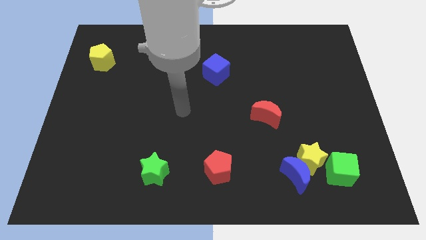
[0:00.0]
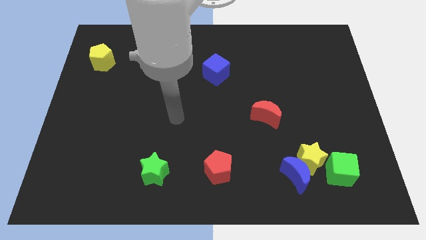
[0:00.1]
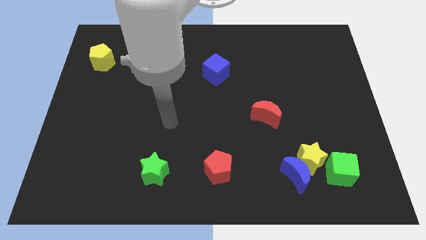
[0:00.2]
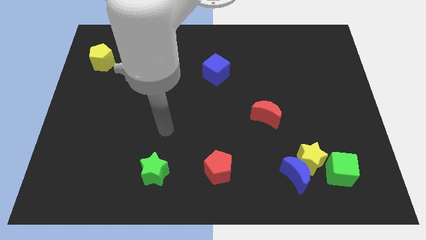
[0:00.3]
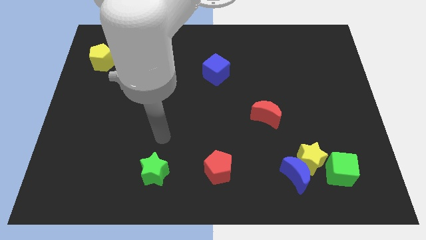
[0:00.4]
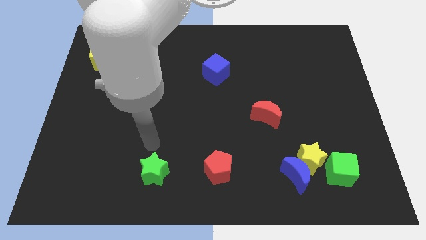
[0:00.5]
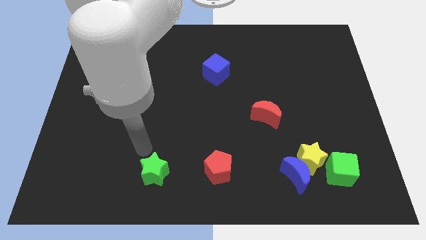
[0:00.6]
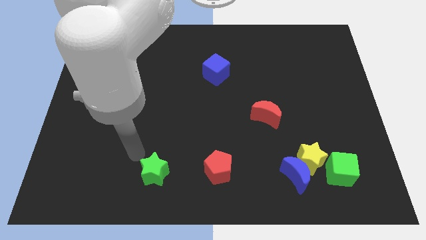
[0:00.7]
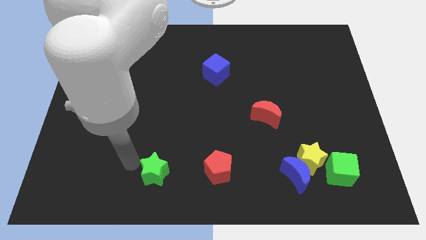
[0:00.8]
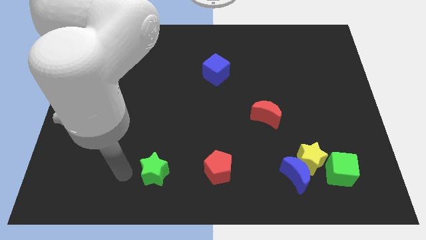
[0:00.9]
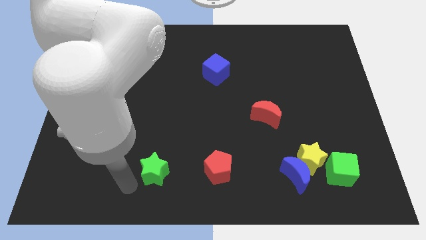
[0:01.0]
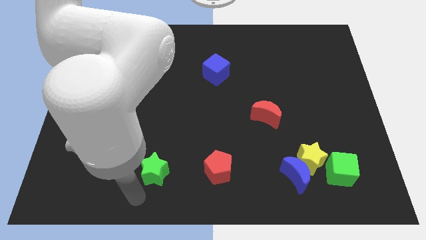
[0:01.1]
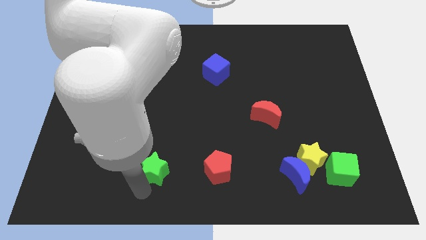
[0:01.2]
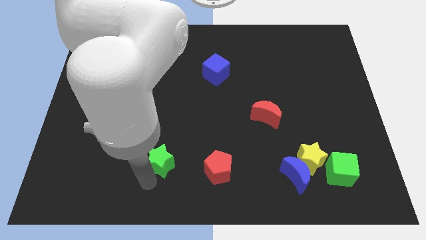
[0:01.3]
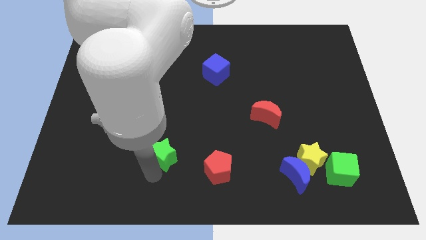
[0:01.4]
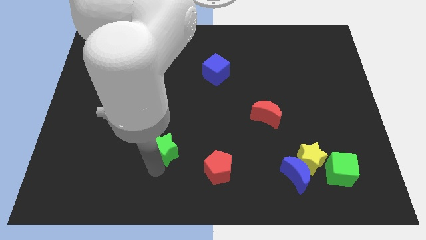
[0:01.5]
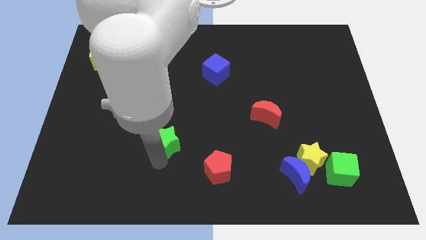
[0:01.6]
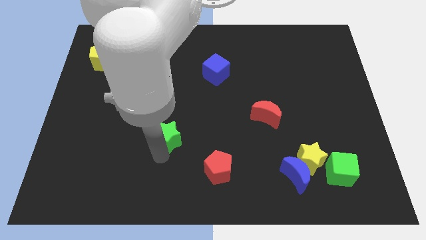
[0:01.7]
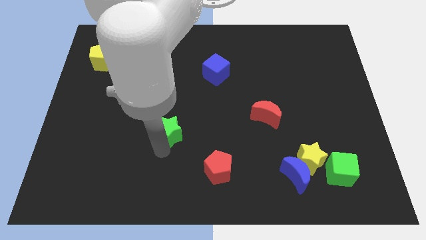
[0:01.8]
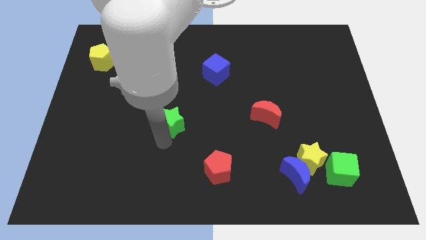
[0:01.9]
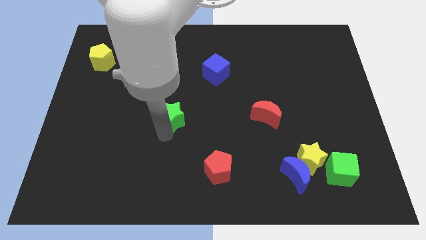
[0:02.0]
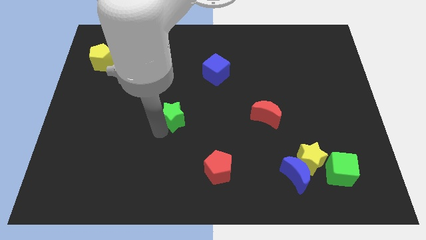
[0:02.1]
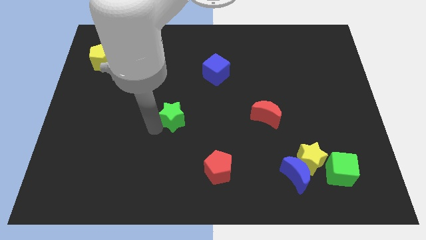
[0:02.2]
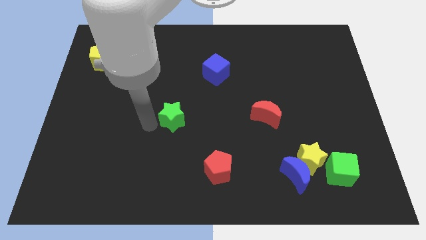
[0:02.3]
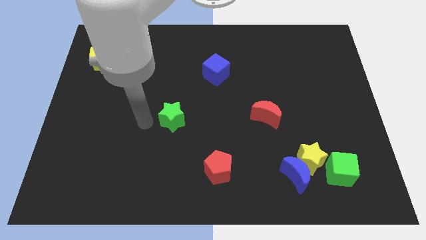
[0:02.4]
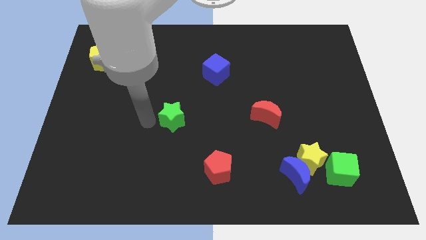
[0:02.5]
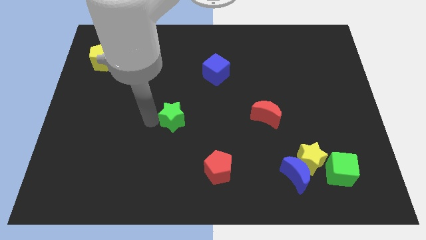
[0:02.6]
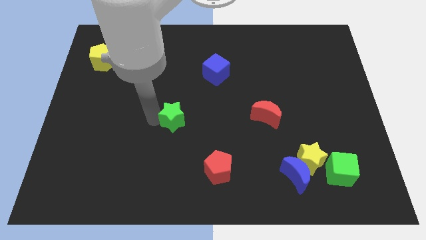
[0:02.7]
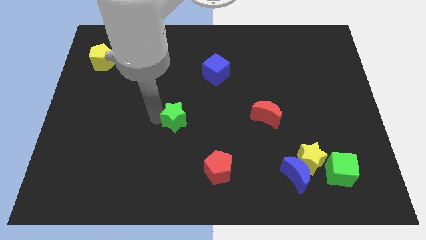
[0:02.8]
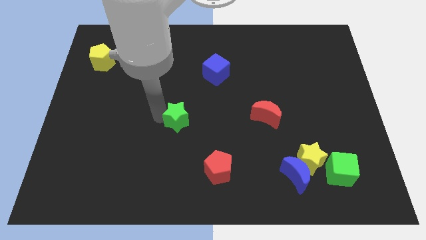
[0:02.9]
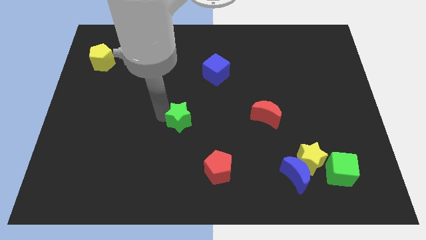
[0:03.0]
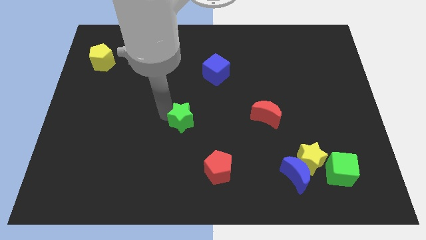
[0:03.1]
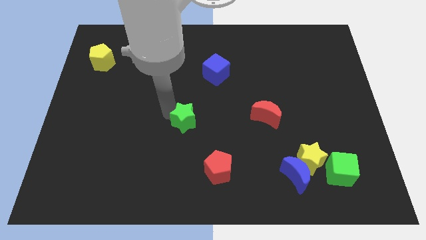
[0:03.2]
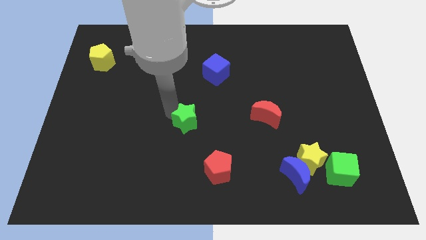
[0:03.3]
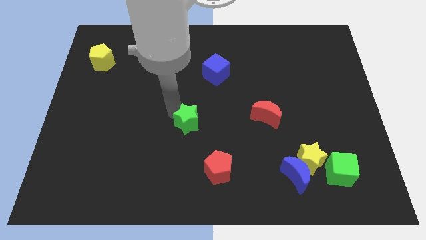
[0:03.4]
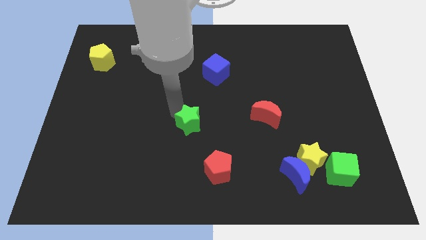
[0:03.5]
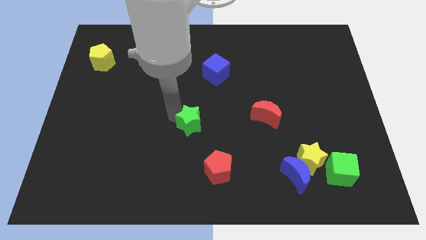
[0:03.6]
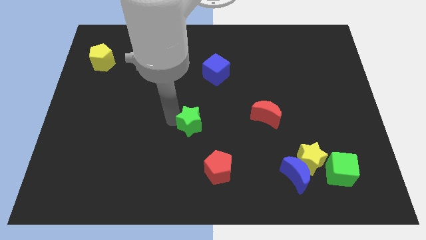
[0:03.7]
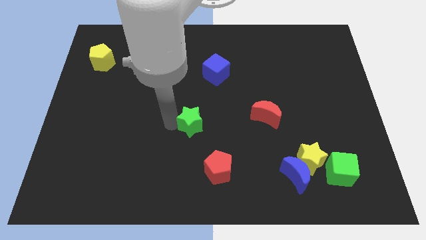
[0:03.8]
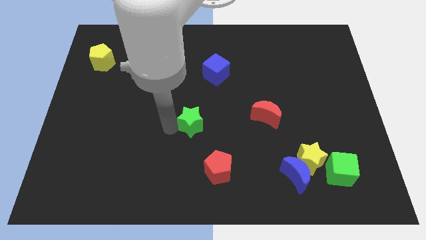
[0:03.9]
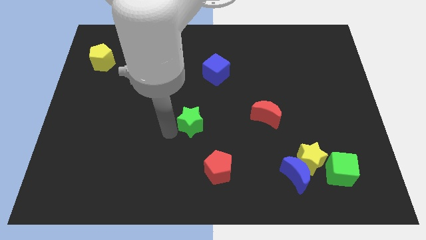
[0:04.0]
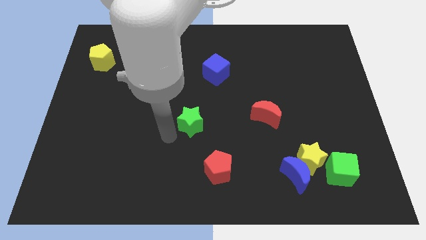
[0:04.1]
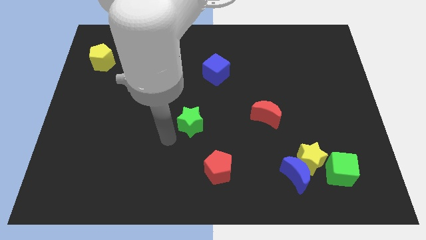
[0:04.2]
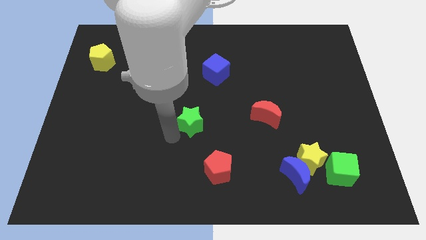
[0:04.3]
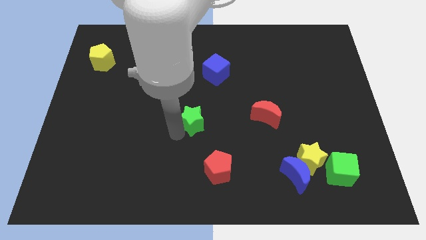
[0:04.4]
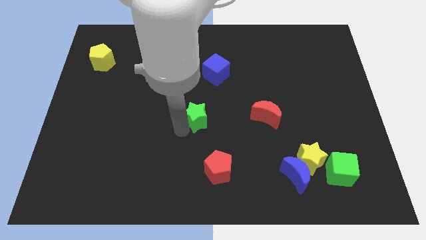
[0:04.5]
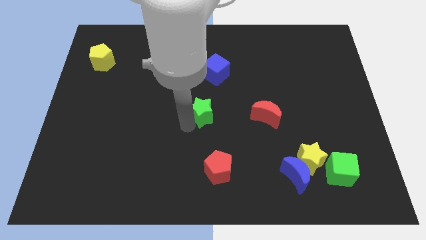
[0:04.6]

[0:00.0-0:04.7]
push the green star below the blue cube

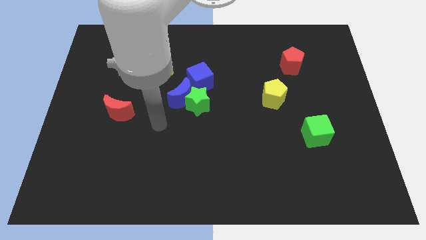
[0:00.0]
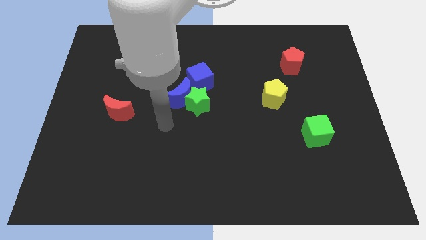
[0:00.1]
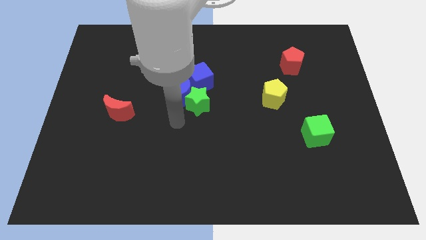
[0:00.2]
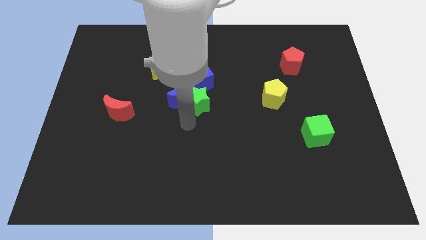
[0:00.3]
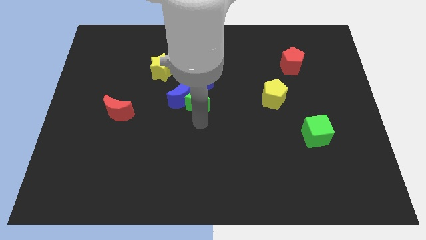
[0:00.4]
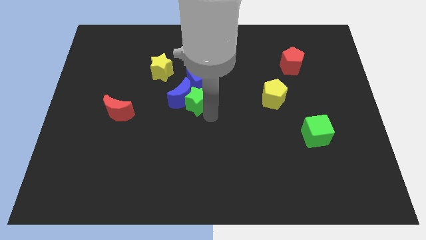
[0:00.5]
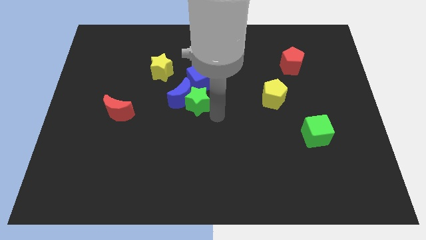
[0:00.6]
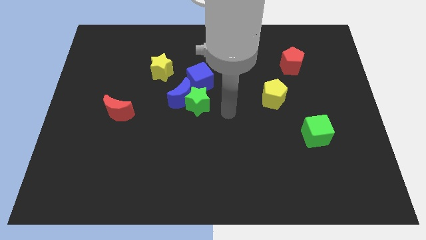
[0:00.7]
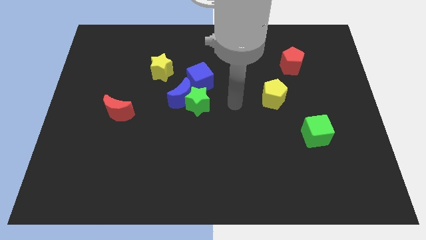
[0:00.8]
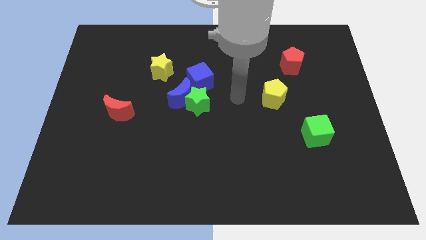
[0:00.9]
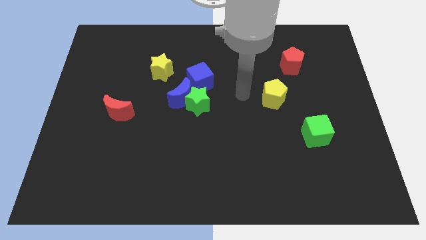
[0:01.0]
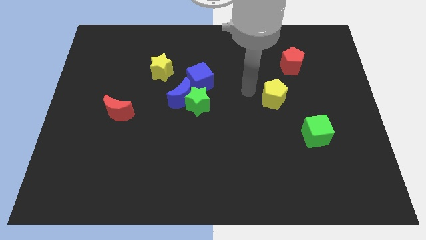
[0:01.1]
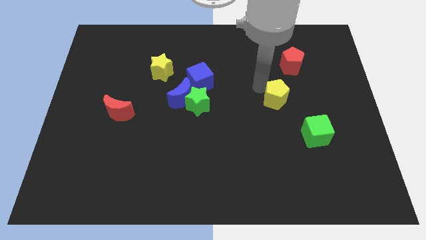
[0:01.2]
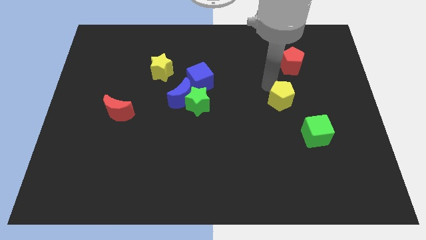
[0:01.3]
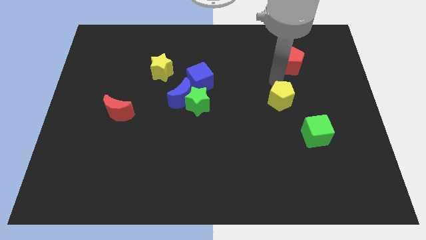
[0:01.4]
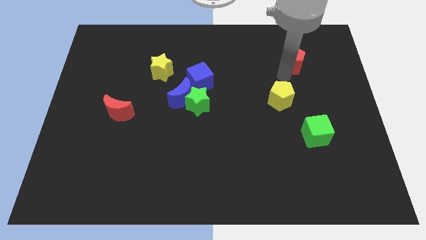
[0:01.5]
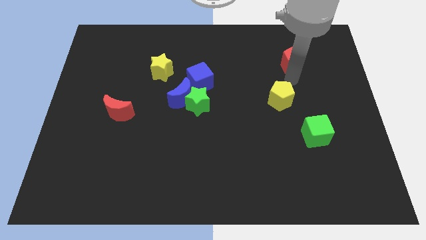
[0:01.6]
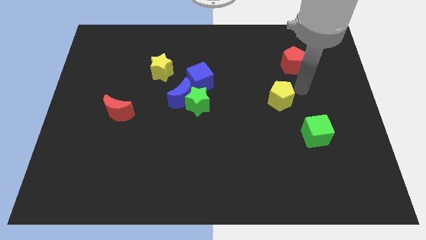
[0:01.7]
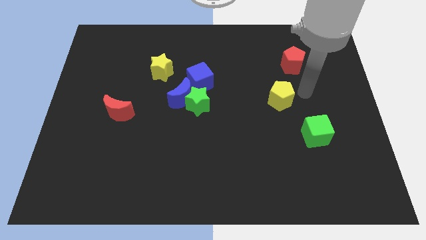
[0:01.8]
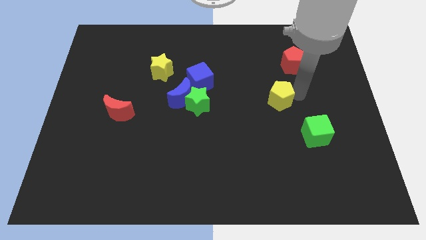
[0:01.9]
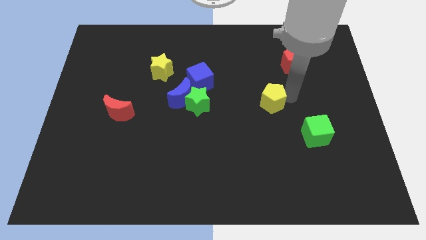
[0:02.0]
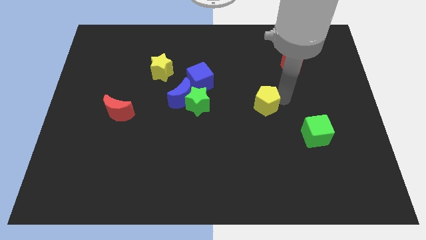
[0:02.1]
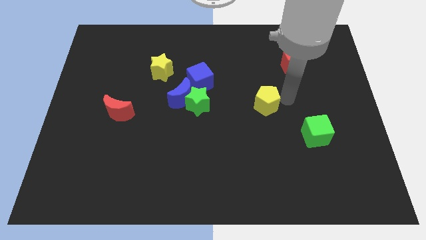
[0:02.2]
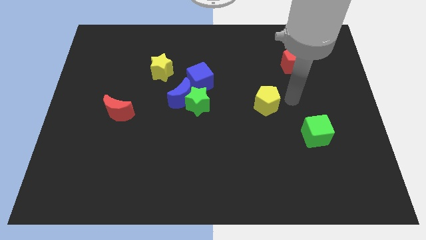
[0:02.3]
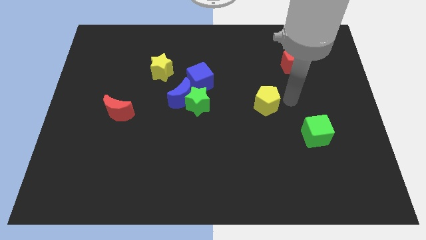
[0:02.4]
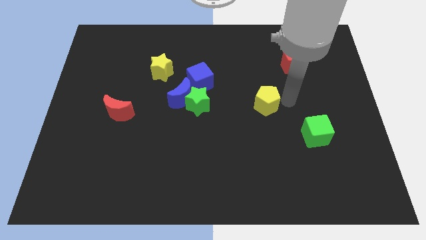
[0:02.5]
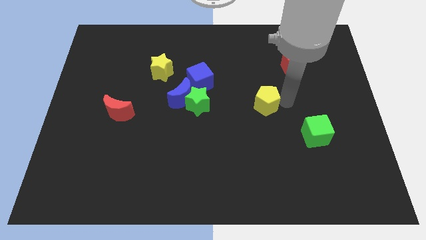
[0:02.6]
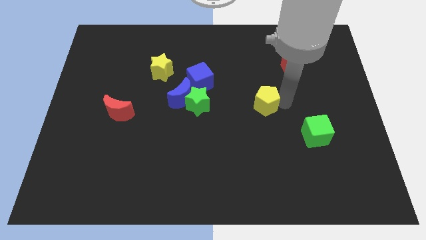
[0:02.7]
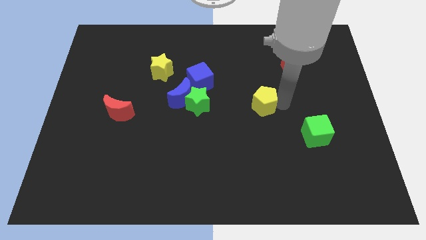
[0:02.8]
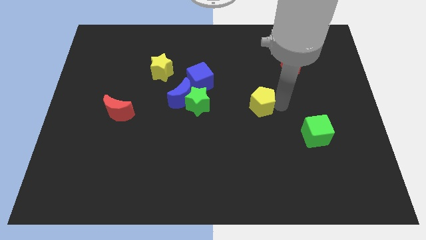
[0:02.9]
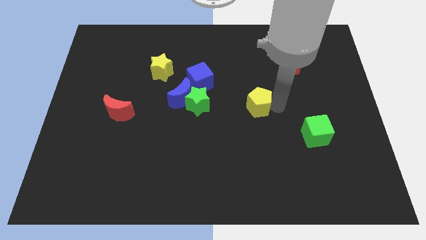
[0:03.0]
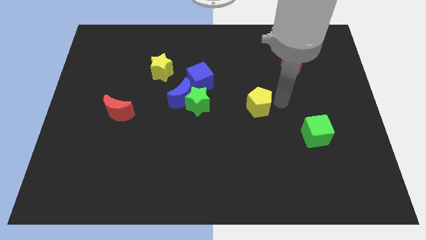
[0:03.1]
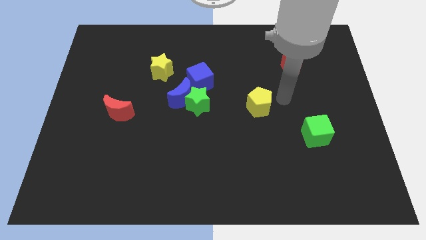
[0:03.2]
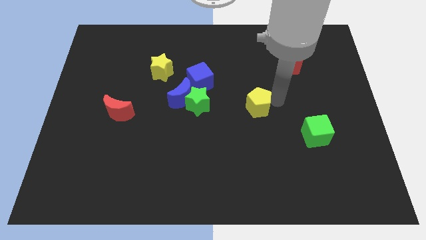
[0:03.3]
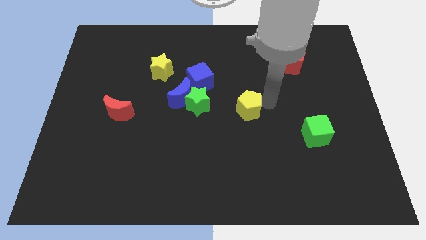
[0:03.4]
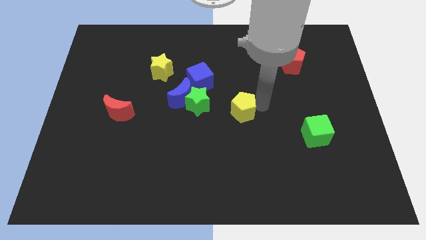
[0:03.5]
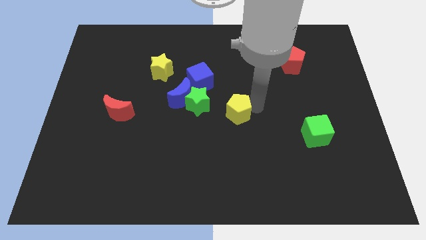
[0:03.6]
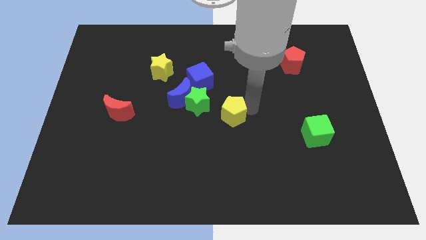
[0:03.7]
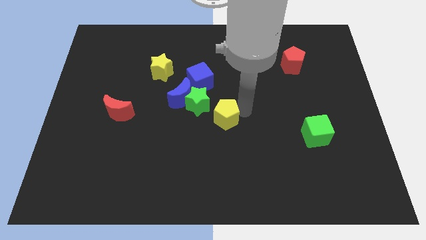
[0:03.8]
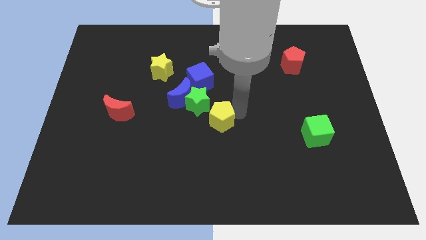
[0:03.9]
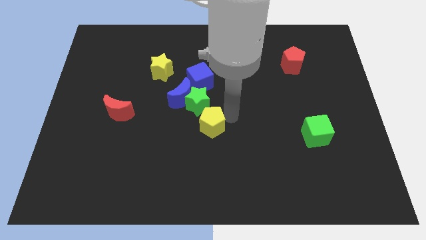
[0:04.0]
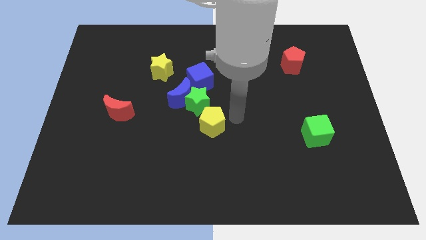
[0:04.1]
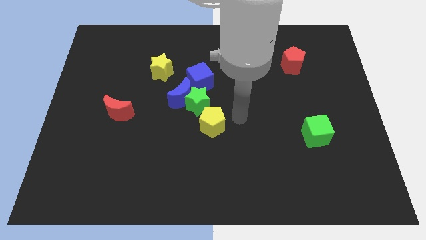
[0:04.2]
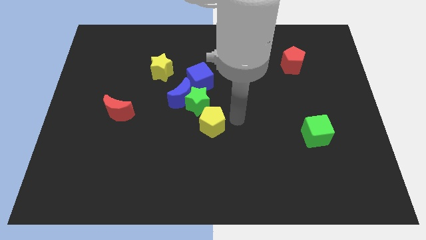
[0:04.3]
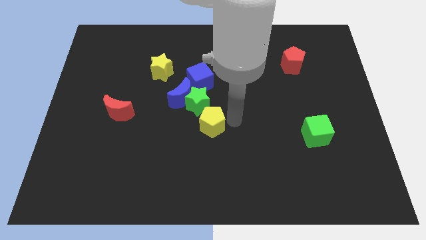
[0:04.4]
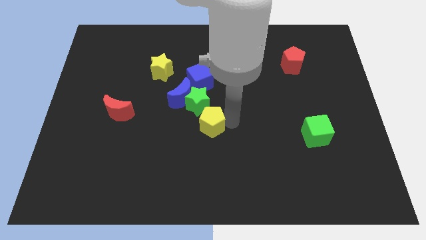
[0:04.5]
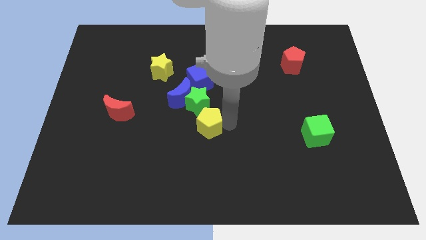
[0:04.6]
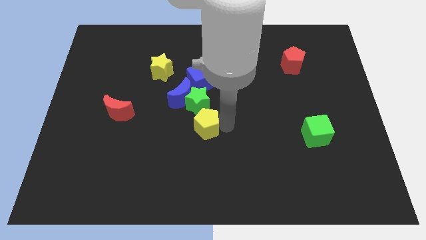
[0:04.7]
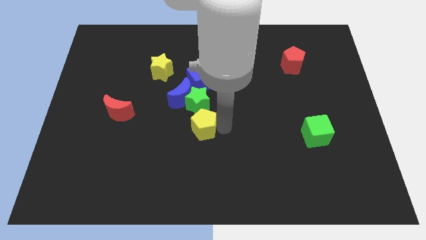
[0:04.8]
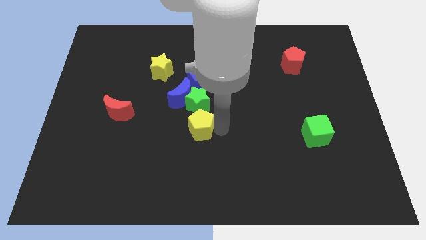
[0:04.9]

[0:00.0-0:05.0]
move the yellow pentagon below the blue moon
